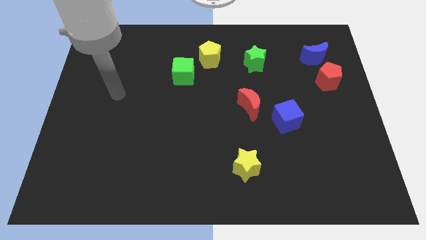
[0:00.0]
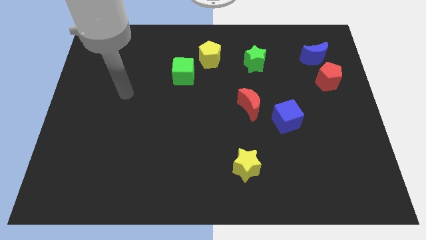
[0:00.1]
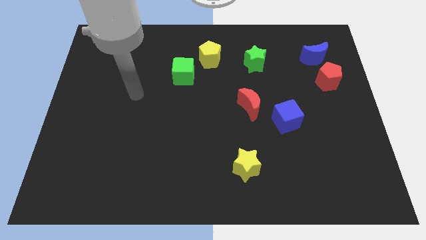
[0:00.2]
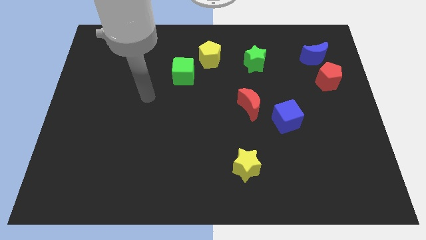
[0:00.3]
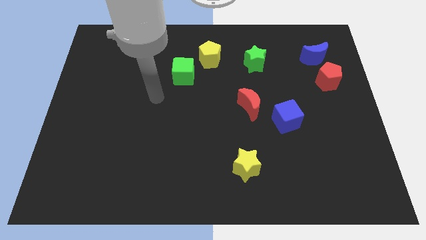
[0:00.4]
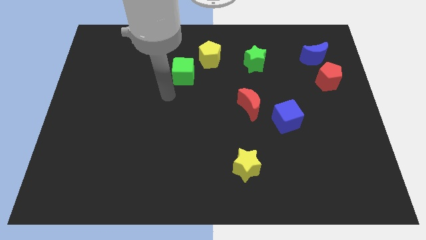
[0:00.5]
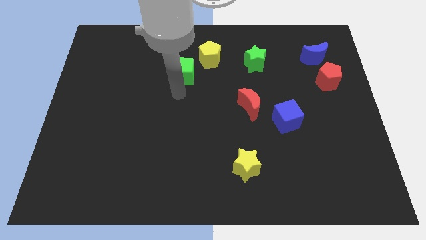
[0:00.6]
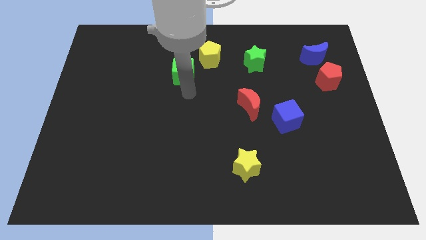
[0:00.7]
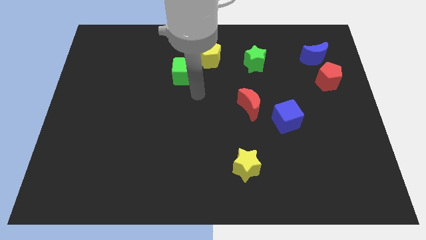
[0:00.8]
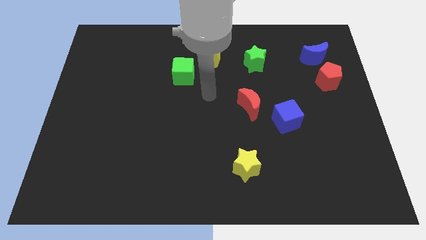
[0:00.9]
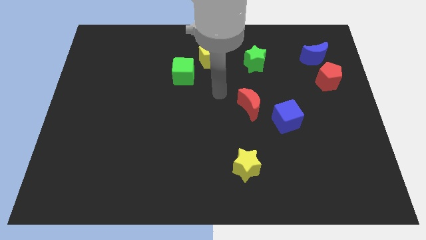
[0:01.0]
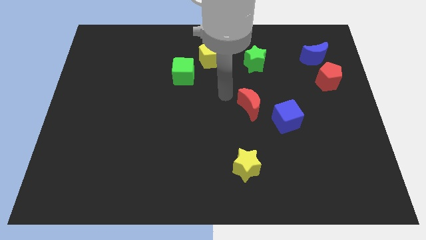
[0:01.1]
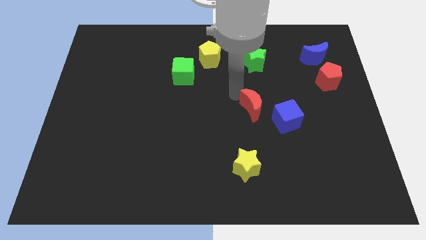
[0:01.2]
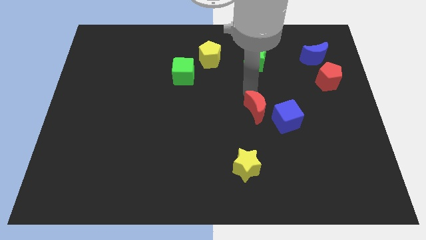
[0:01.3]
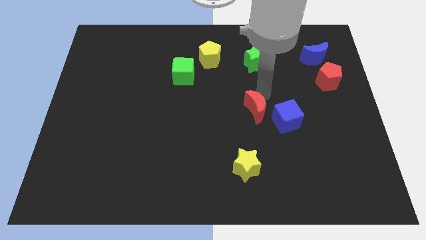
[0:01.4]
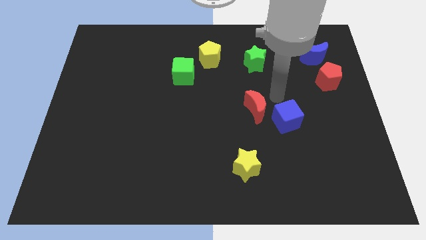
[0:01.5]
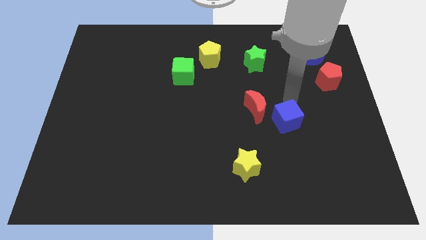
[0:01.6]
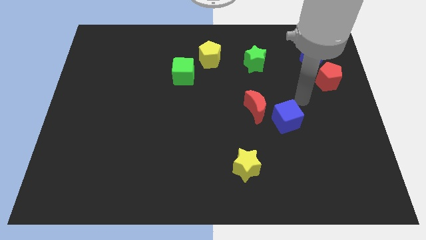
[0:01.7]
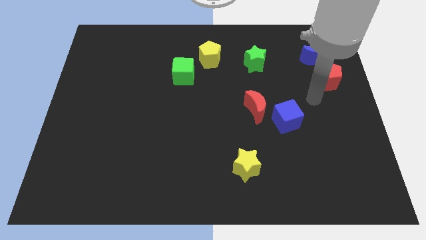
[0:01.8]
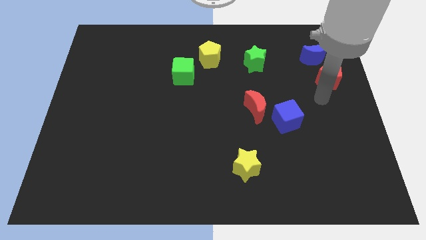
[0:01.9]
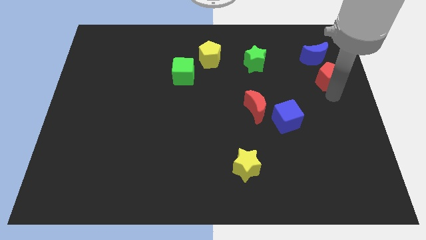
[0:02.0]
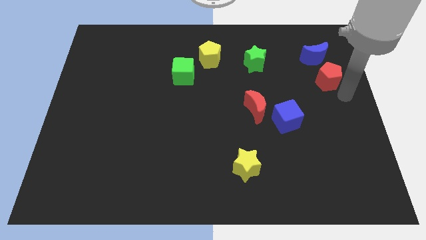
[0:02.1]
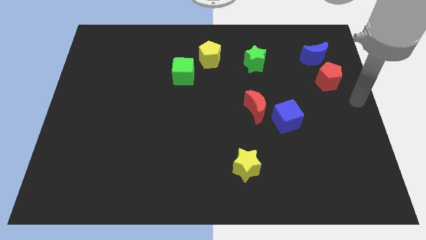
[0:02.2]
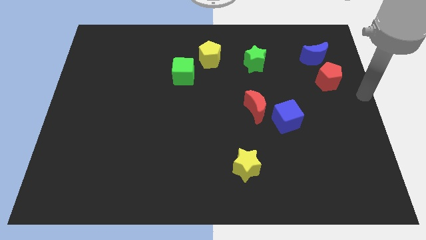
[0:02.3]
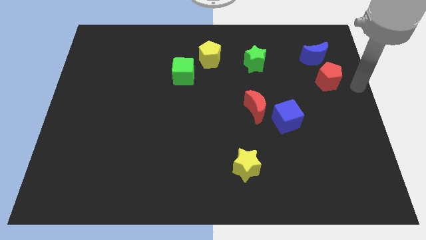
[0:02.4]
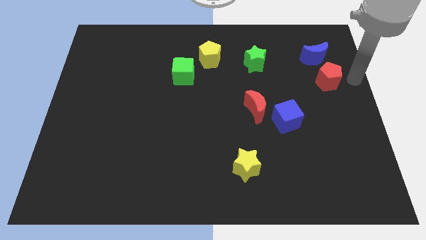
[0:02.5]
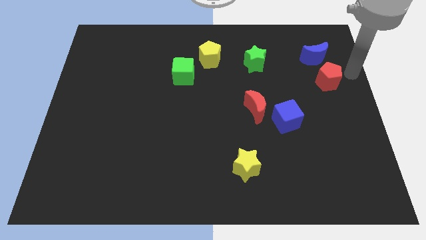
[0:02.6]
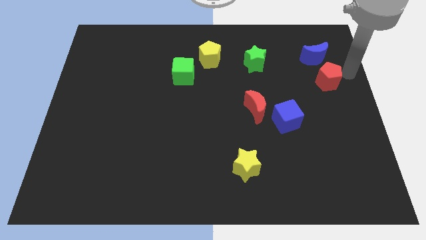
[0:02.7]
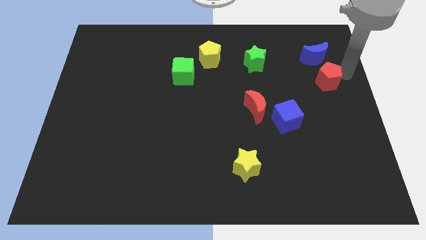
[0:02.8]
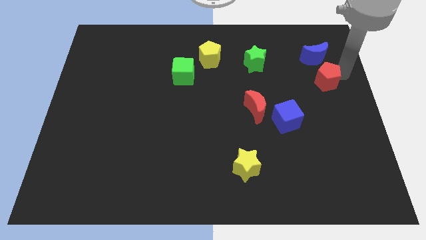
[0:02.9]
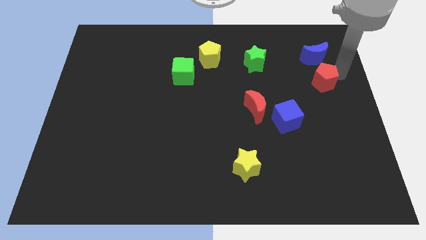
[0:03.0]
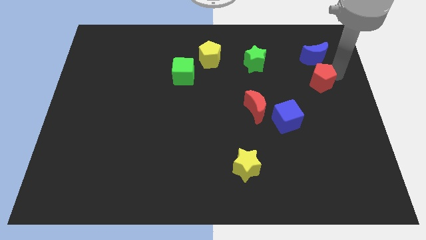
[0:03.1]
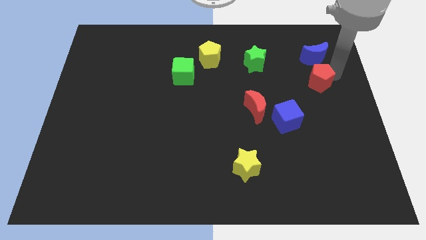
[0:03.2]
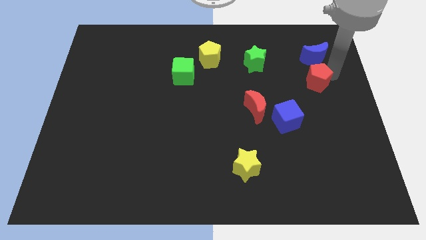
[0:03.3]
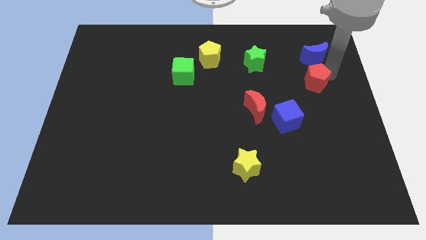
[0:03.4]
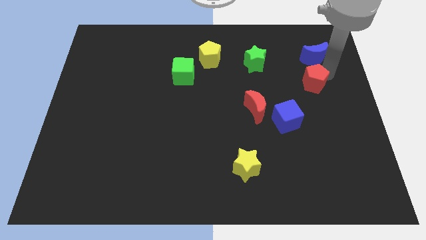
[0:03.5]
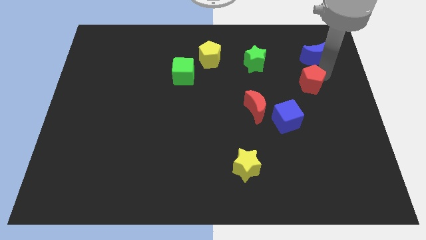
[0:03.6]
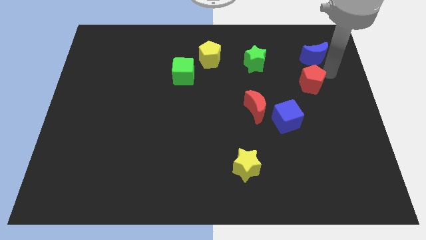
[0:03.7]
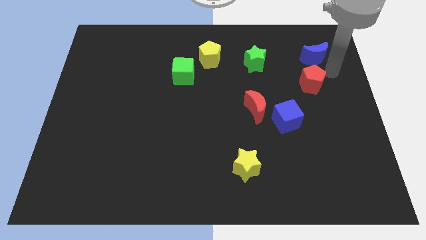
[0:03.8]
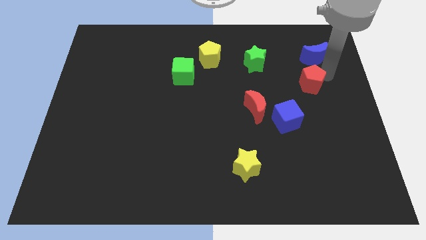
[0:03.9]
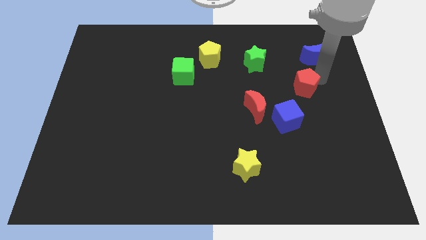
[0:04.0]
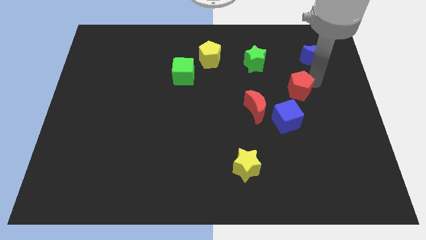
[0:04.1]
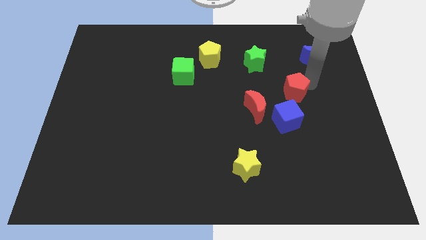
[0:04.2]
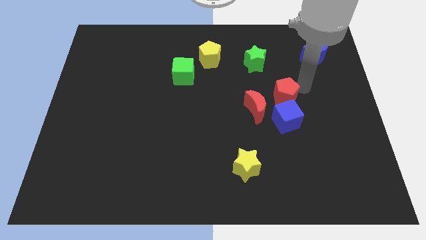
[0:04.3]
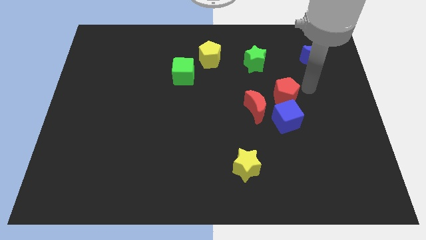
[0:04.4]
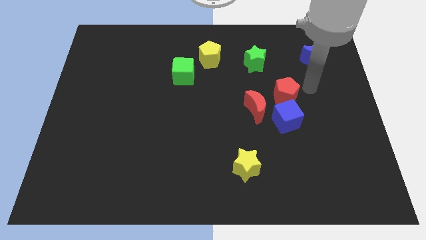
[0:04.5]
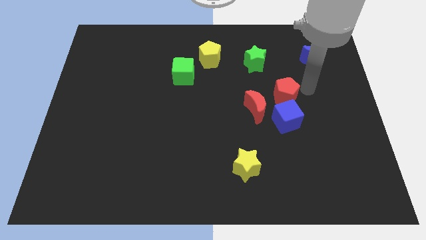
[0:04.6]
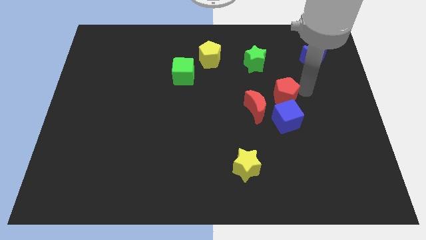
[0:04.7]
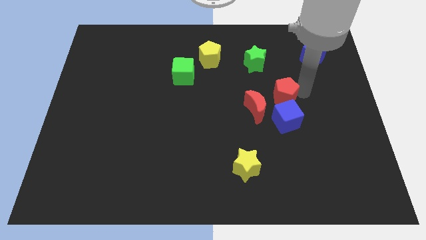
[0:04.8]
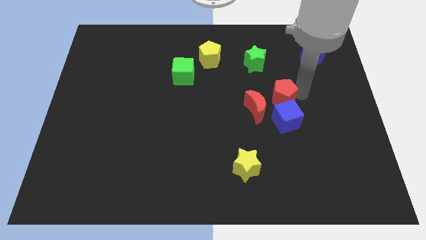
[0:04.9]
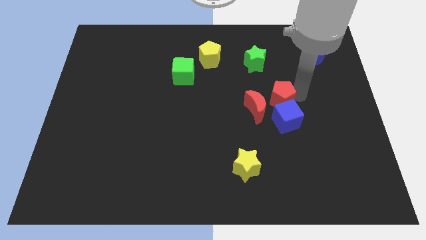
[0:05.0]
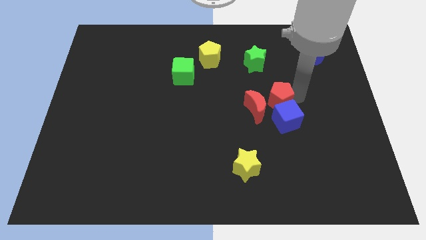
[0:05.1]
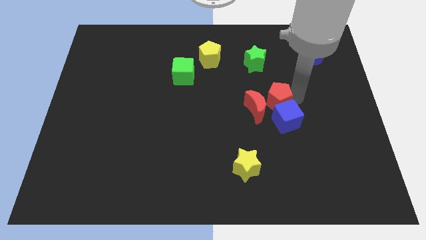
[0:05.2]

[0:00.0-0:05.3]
put the red pentagon towards the red moon

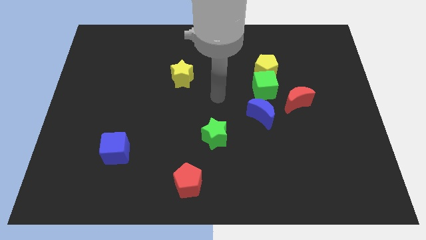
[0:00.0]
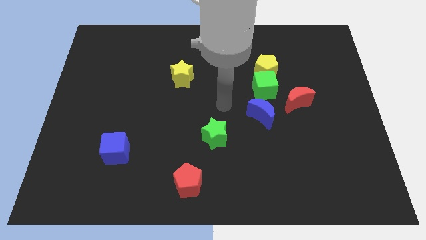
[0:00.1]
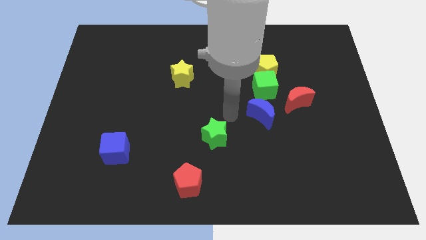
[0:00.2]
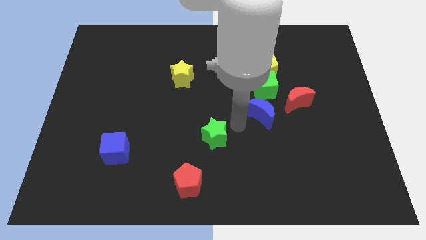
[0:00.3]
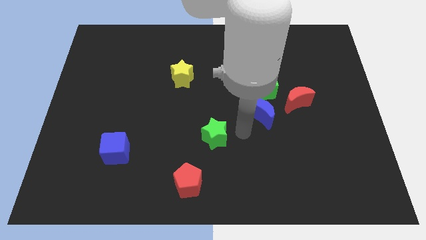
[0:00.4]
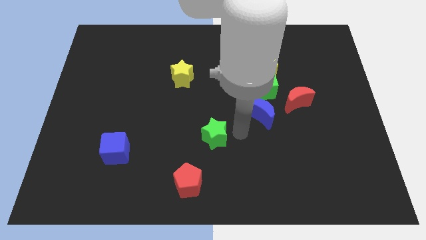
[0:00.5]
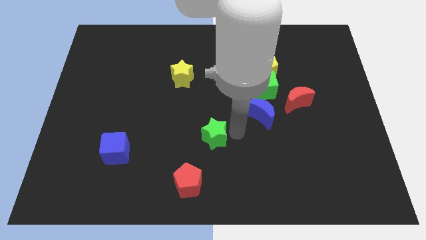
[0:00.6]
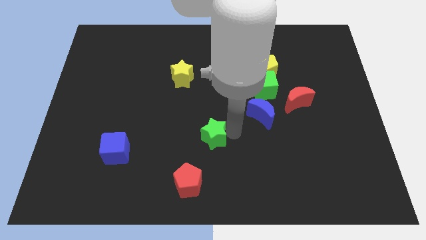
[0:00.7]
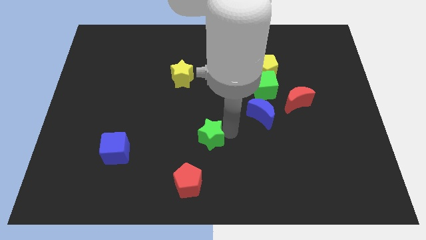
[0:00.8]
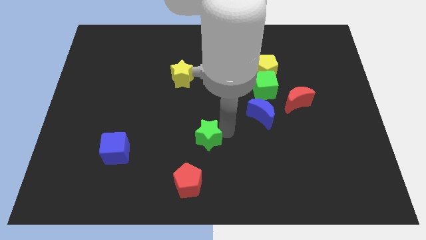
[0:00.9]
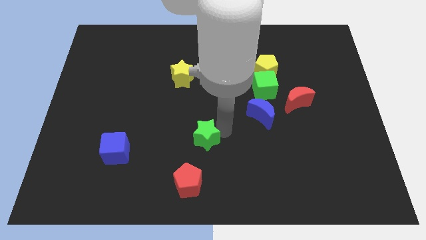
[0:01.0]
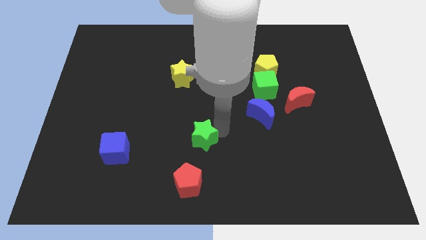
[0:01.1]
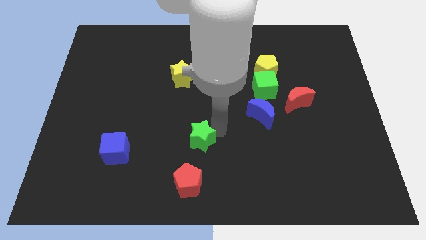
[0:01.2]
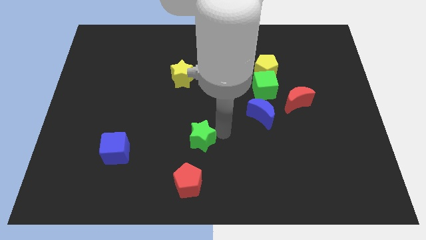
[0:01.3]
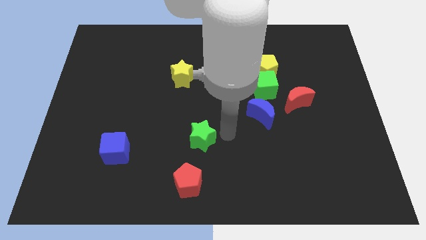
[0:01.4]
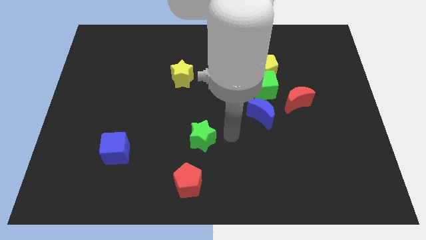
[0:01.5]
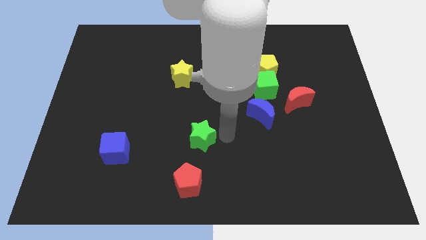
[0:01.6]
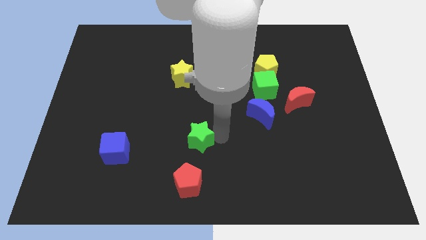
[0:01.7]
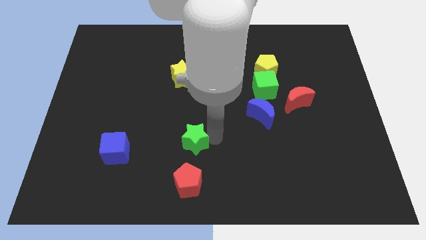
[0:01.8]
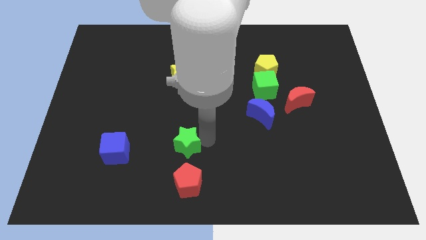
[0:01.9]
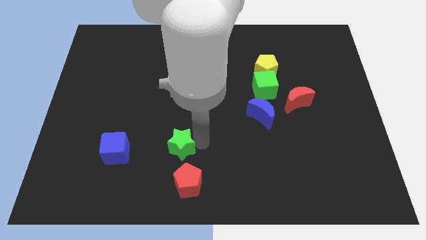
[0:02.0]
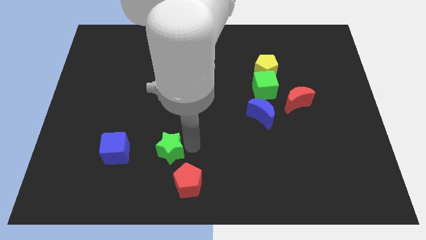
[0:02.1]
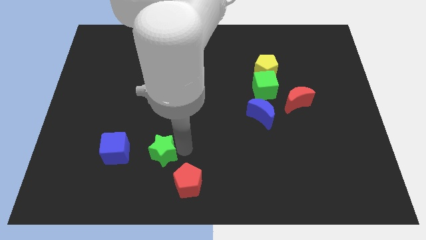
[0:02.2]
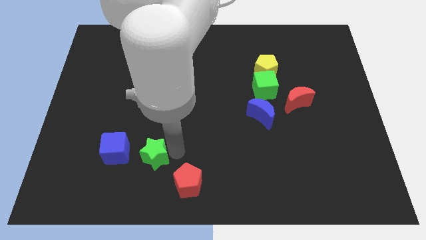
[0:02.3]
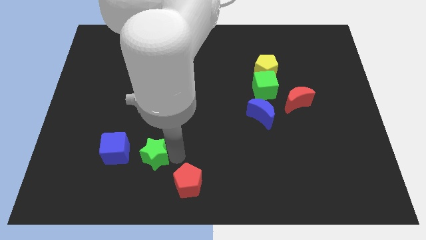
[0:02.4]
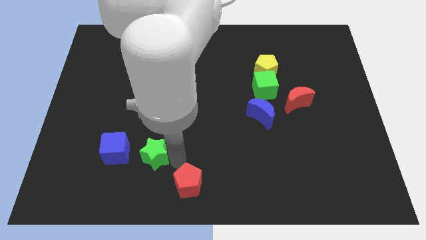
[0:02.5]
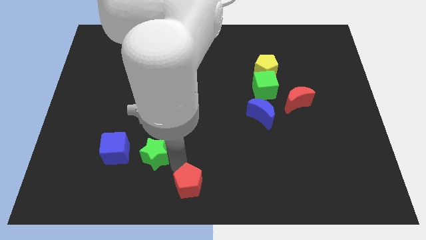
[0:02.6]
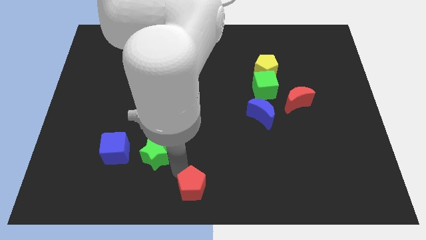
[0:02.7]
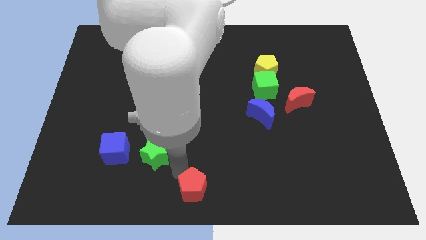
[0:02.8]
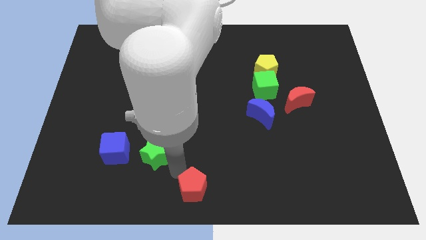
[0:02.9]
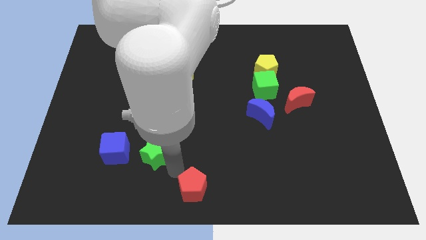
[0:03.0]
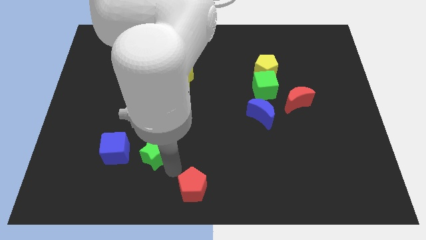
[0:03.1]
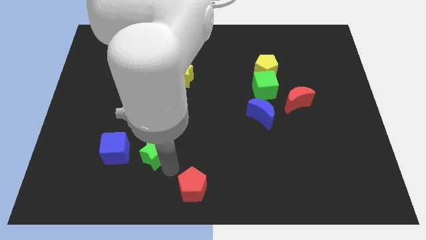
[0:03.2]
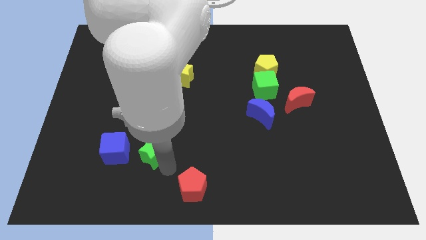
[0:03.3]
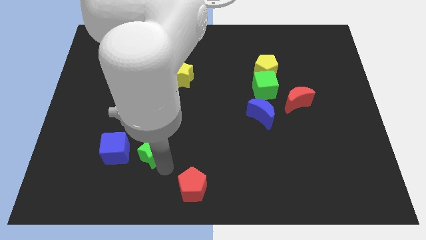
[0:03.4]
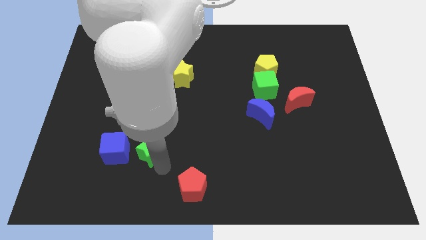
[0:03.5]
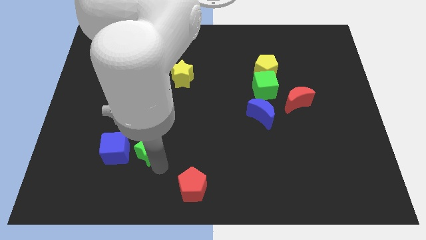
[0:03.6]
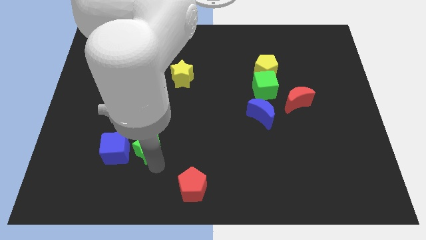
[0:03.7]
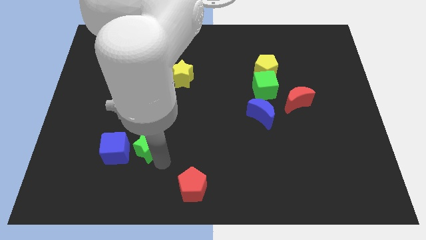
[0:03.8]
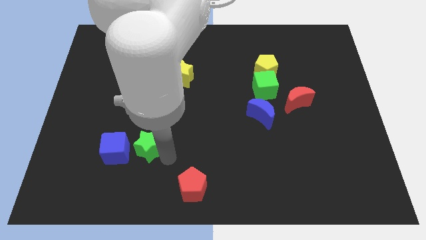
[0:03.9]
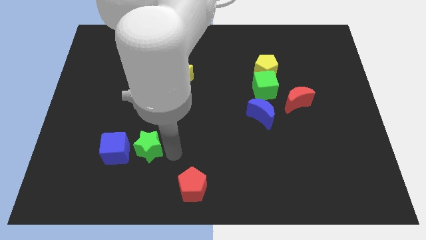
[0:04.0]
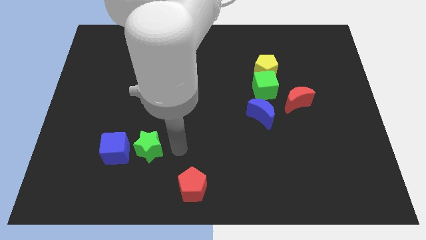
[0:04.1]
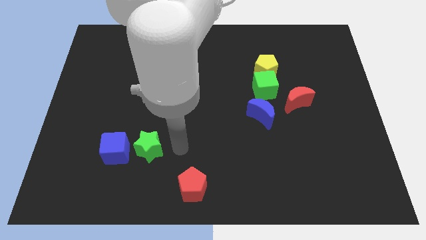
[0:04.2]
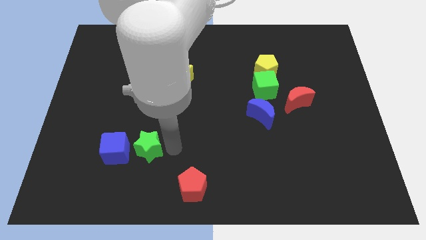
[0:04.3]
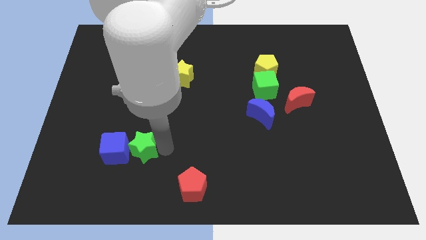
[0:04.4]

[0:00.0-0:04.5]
push the green star next to the blue cube
